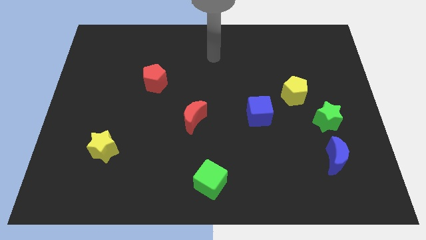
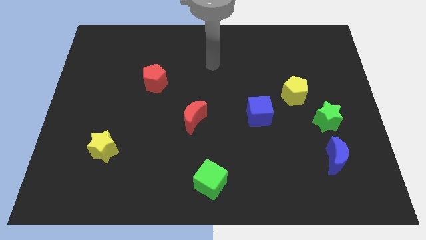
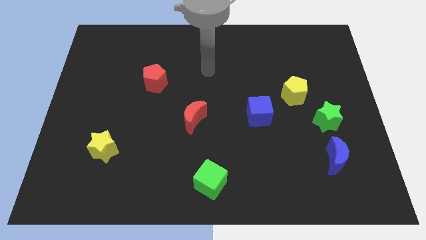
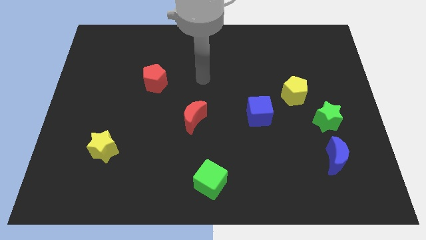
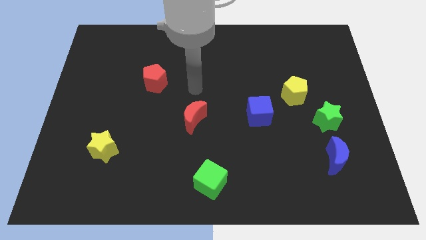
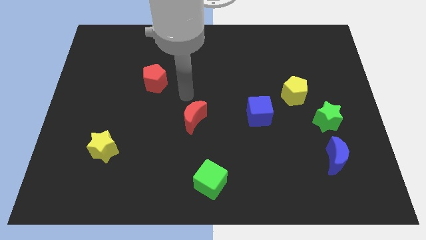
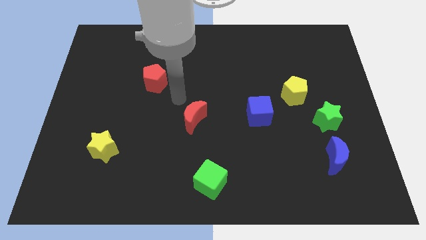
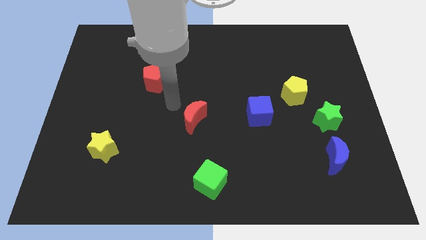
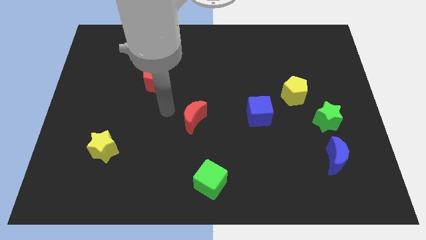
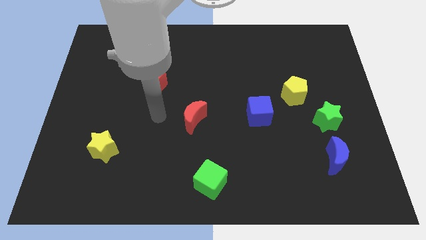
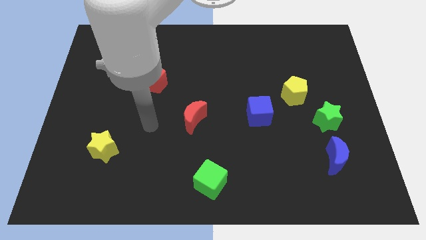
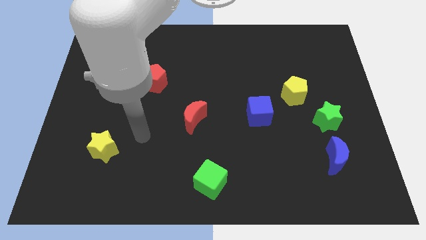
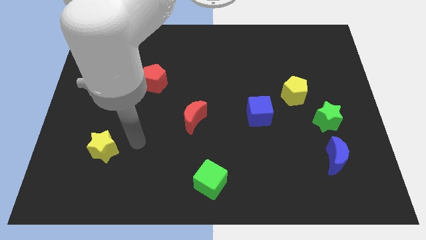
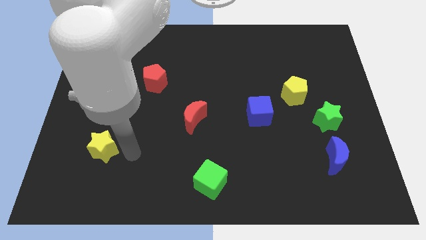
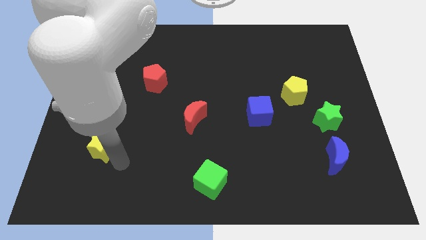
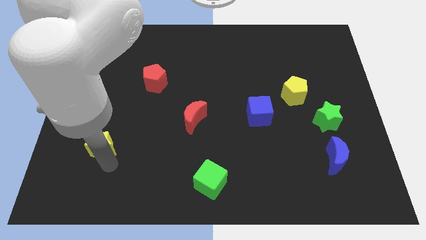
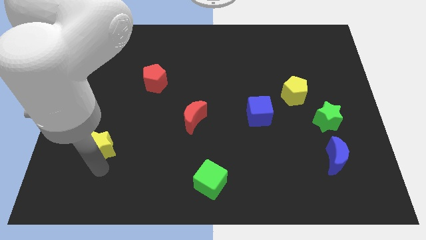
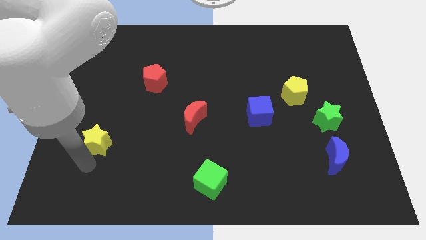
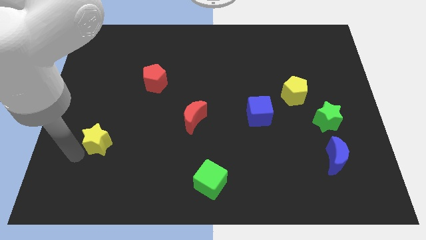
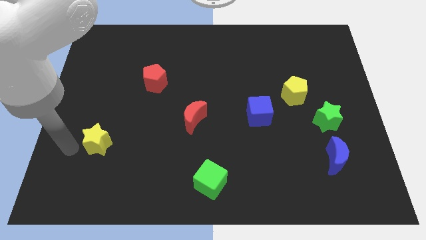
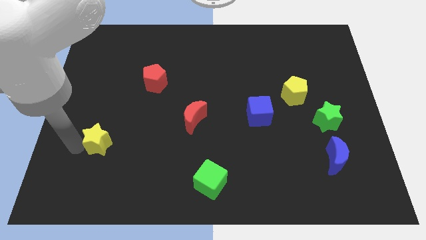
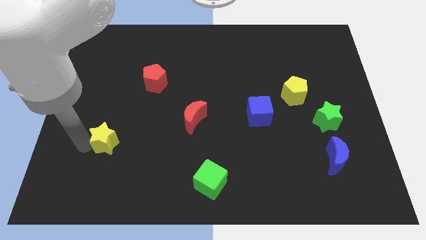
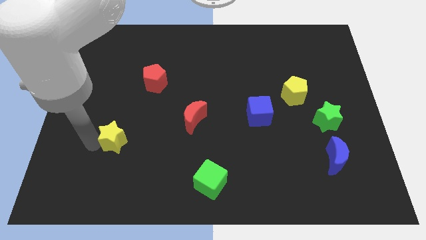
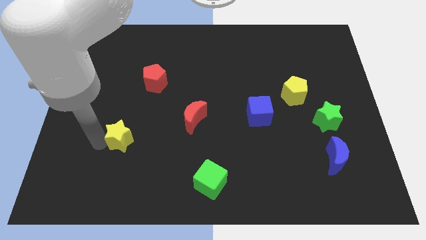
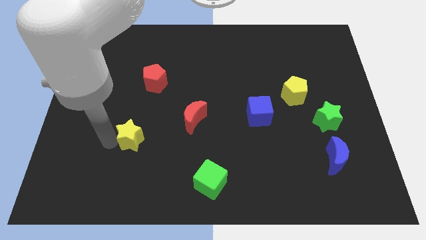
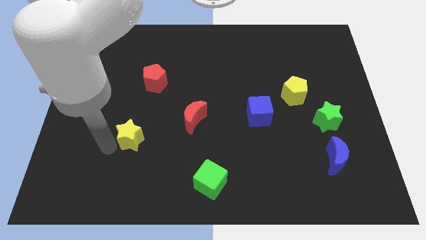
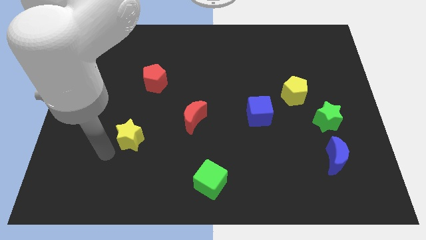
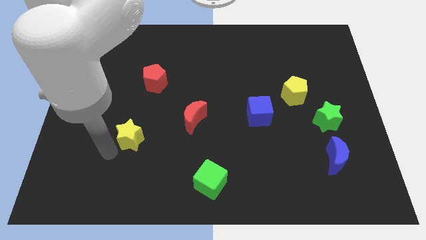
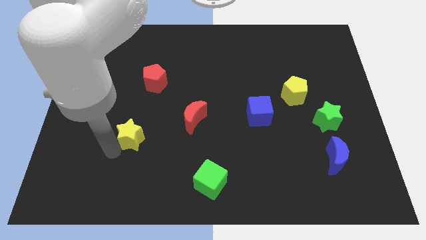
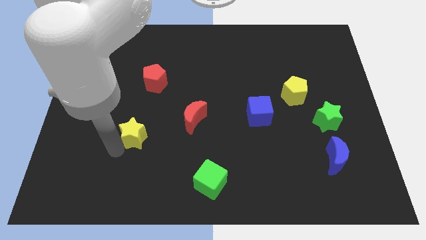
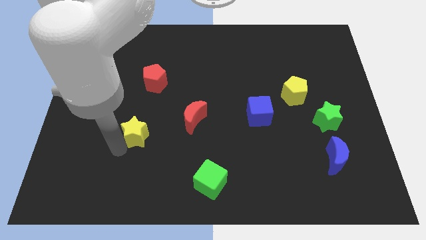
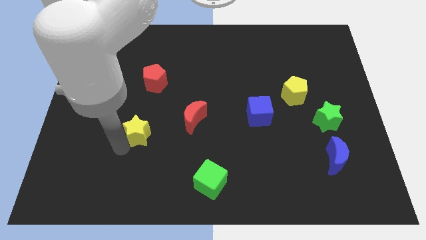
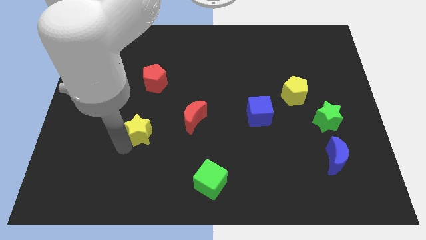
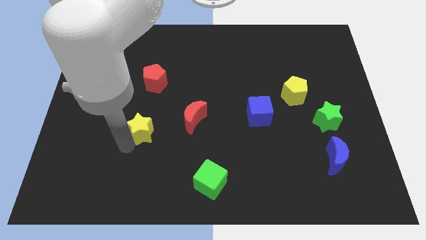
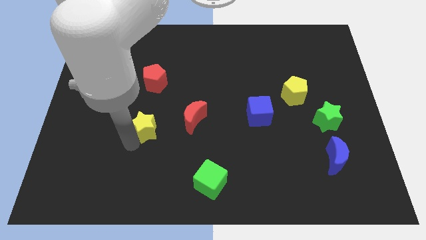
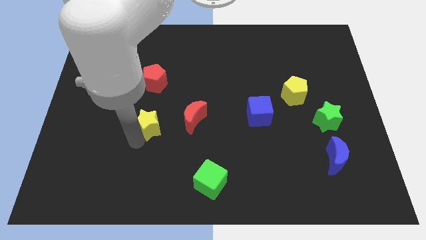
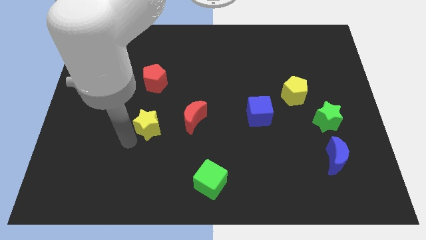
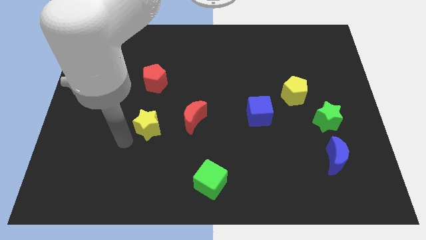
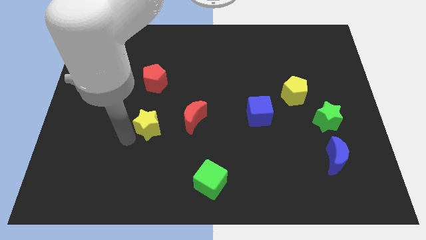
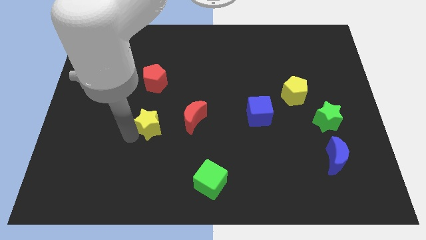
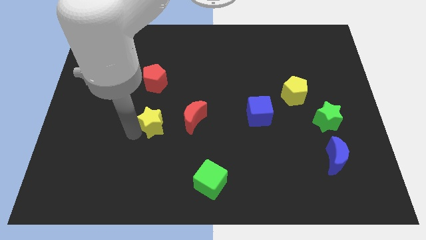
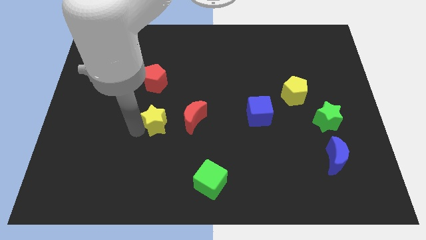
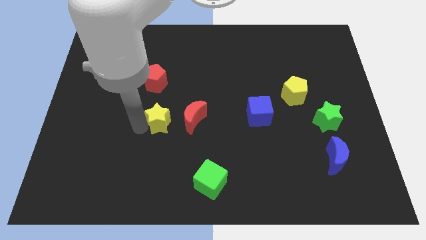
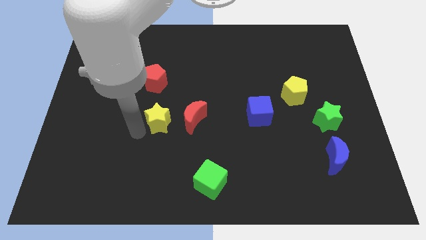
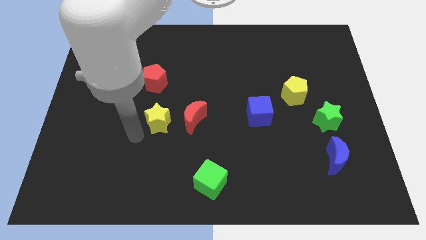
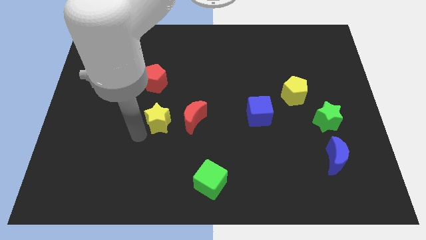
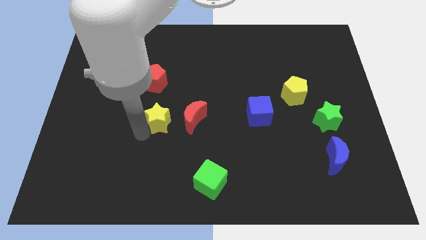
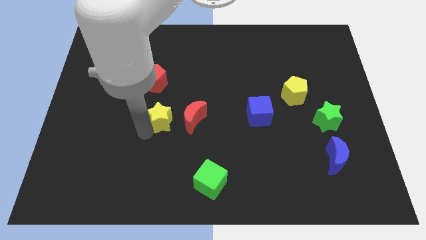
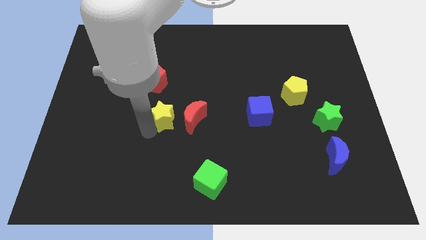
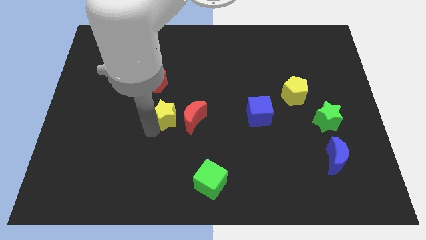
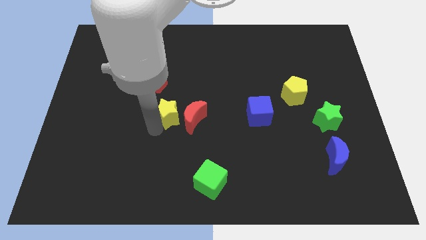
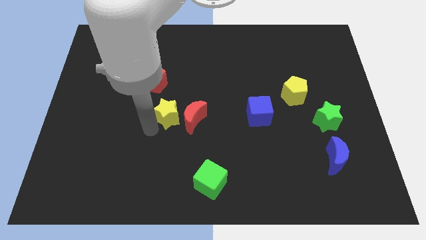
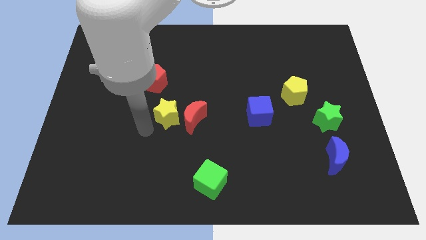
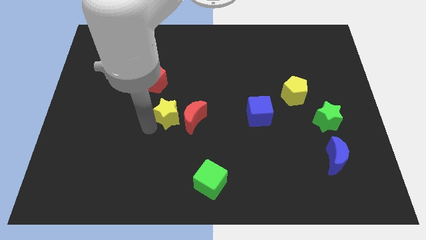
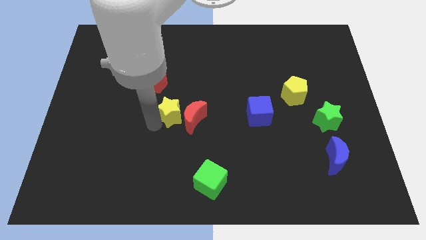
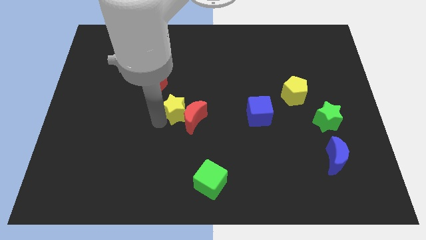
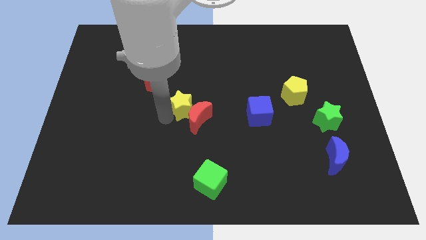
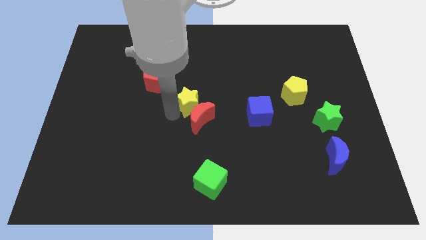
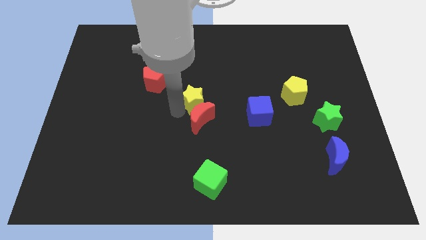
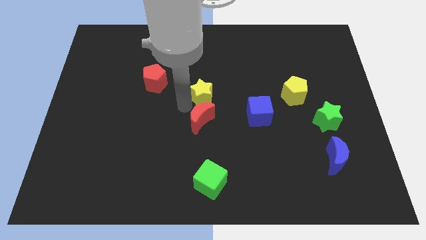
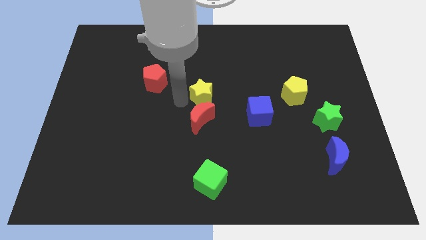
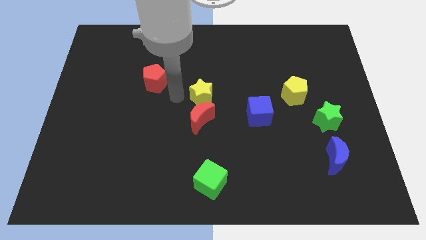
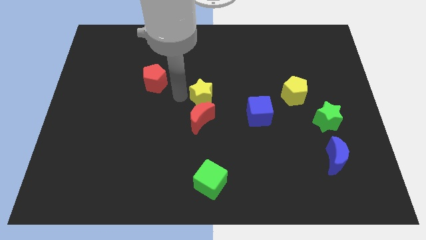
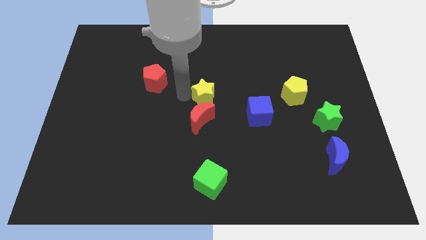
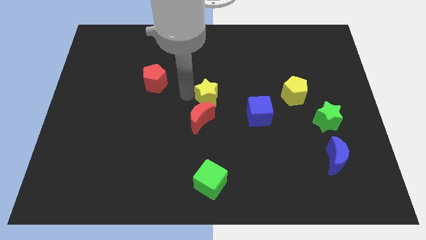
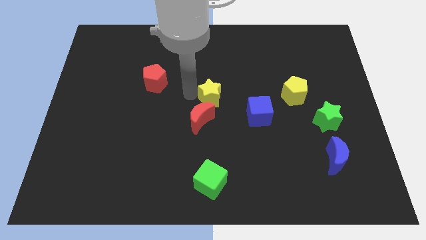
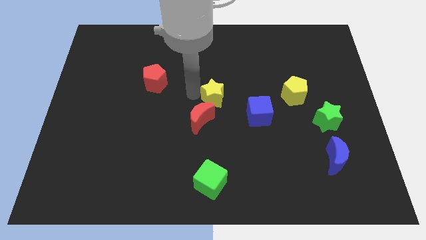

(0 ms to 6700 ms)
put the yellow star to the top left side of the blue cube

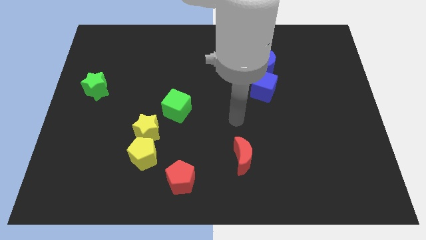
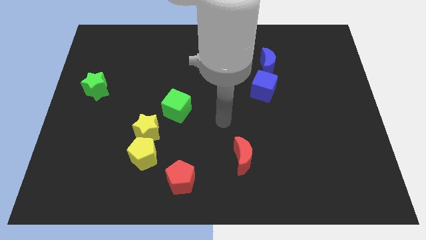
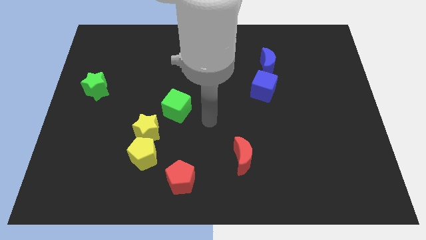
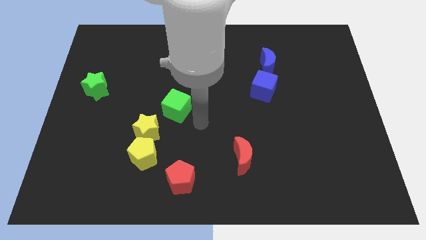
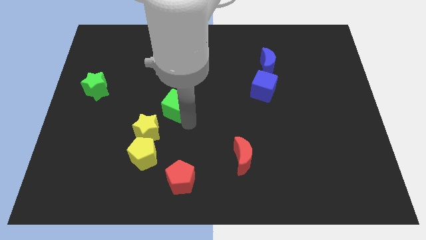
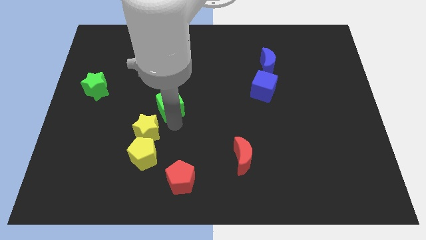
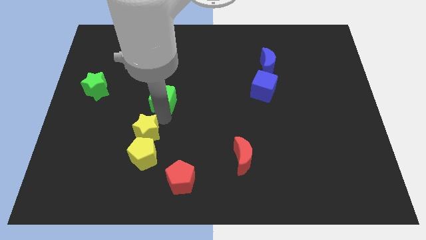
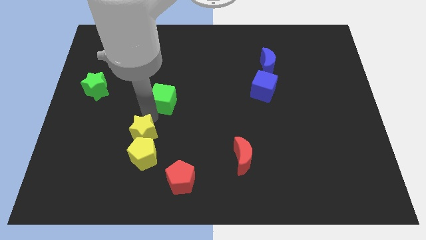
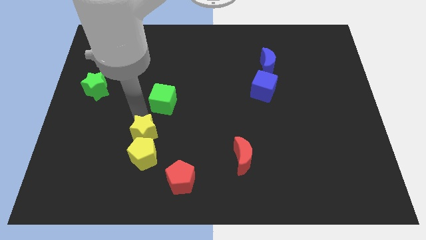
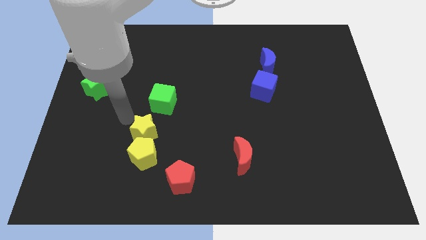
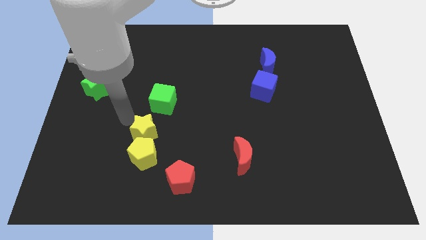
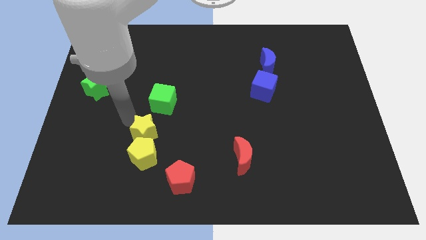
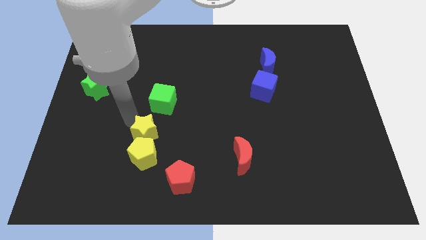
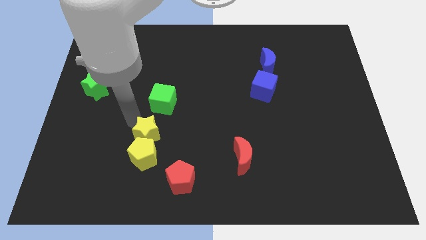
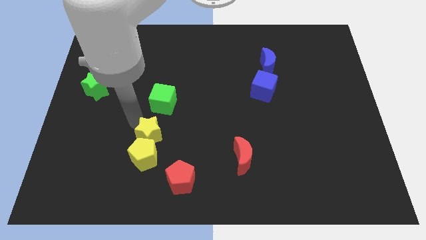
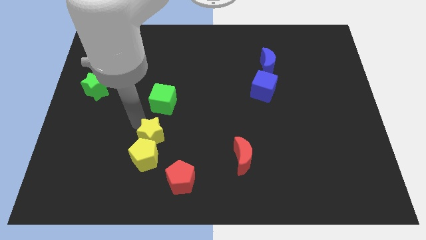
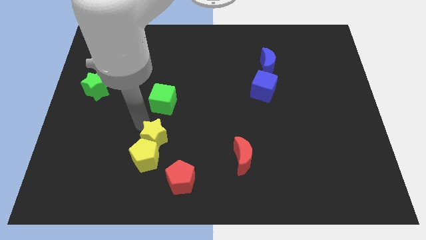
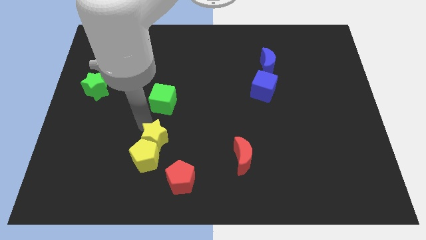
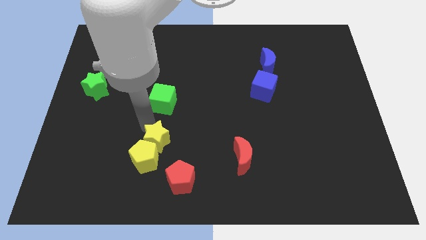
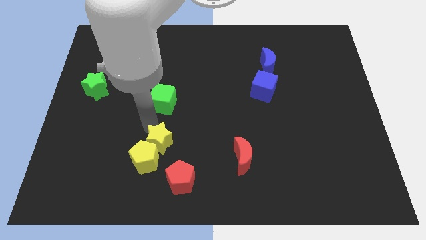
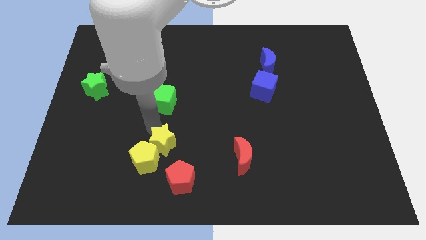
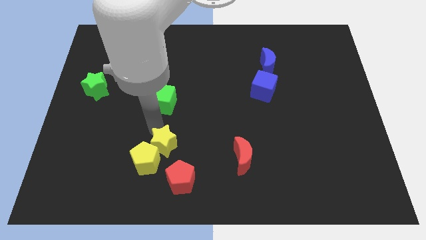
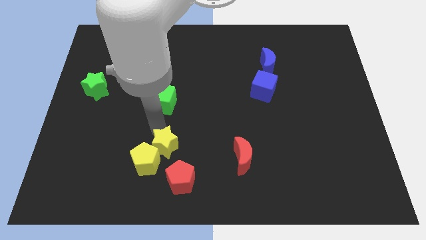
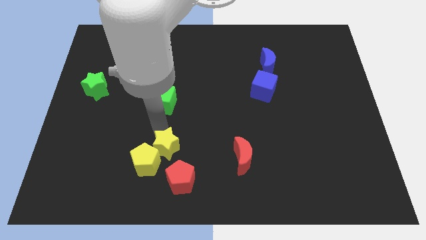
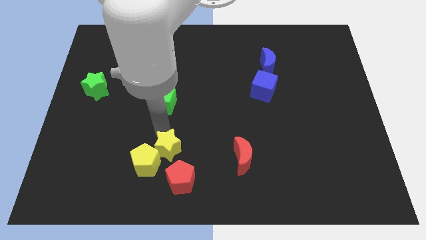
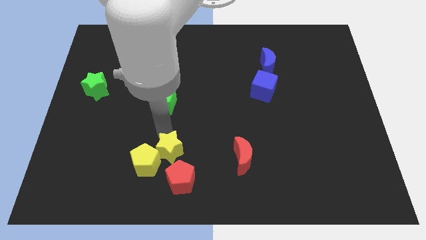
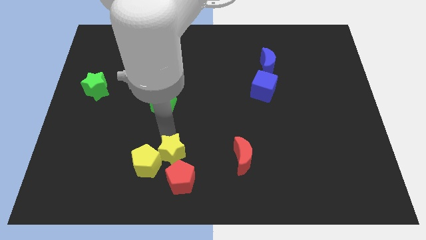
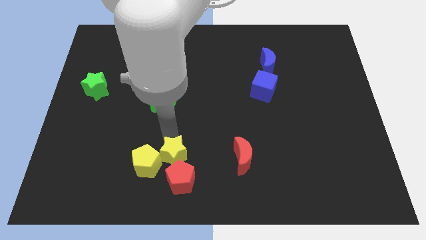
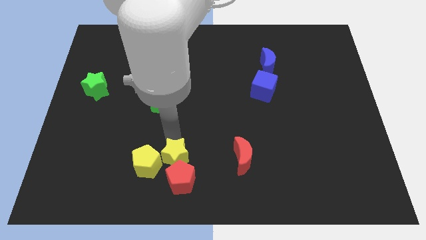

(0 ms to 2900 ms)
put the yellow star diagonally up and to the right of the red pentagon
